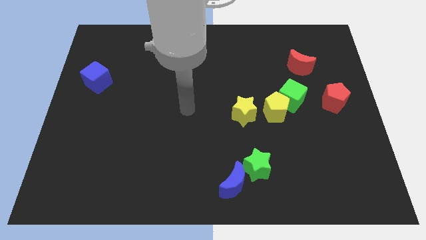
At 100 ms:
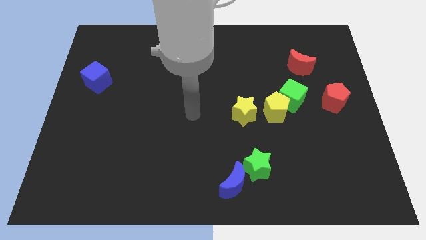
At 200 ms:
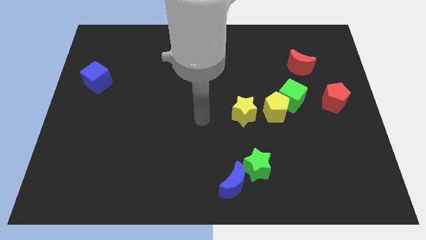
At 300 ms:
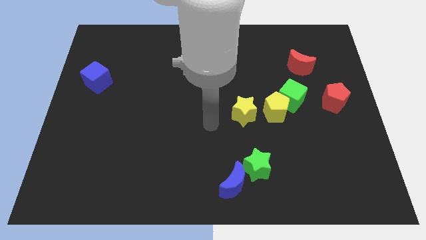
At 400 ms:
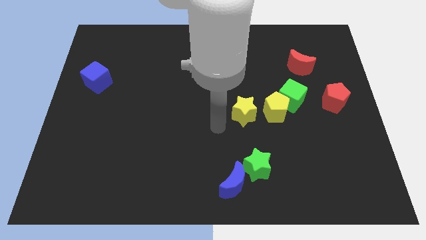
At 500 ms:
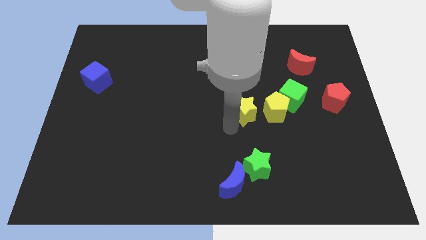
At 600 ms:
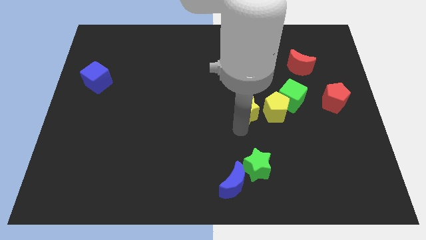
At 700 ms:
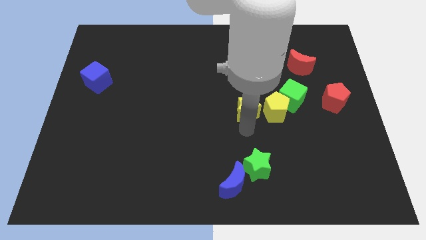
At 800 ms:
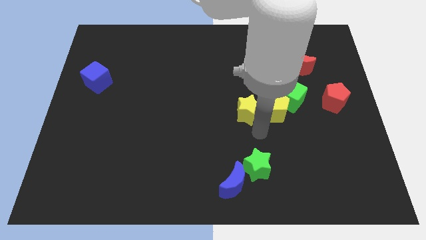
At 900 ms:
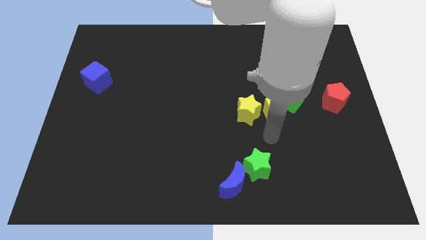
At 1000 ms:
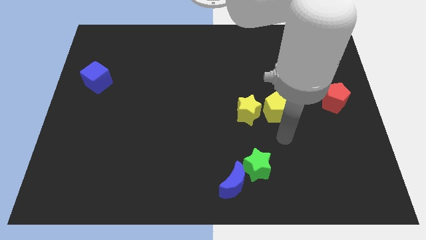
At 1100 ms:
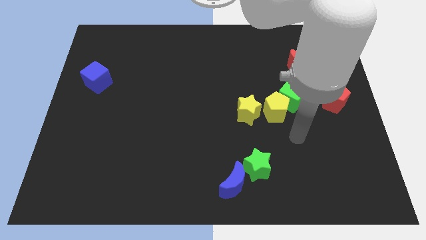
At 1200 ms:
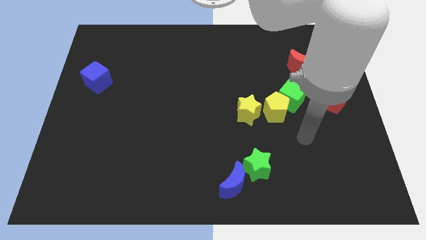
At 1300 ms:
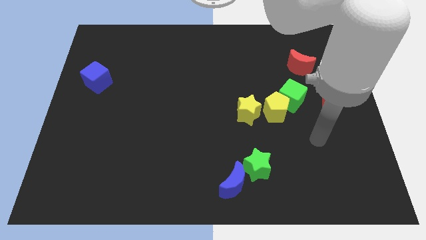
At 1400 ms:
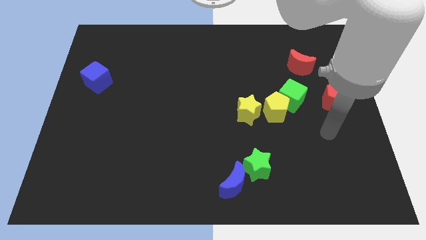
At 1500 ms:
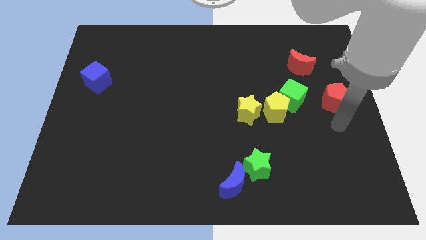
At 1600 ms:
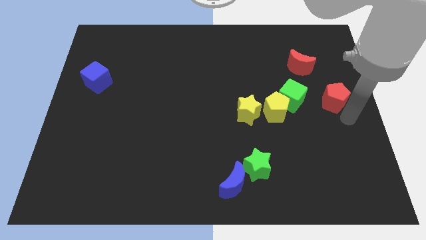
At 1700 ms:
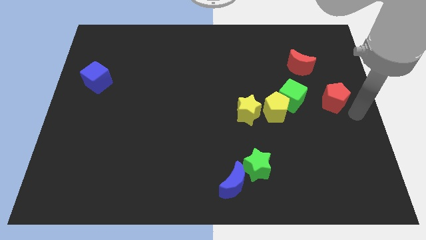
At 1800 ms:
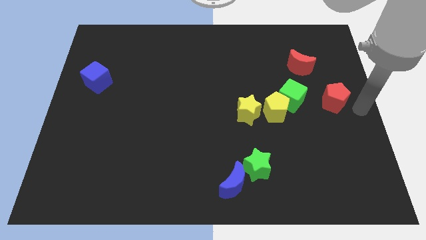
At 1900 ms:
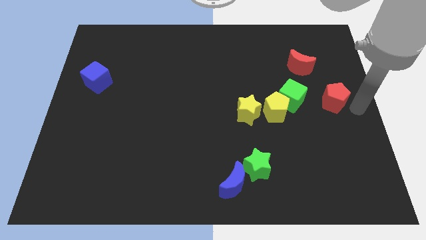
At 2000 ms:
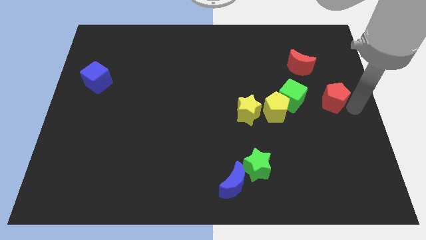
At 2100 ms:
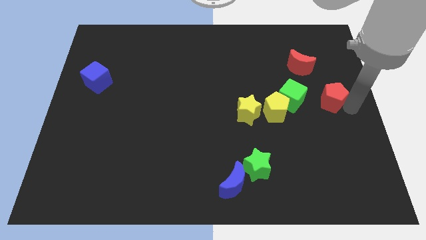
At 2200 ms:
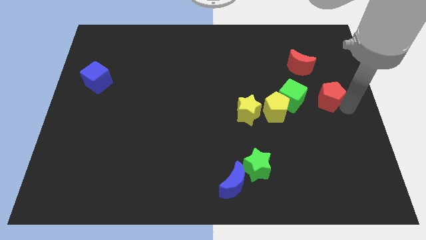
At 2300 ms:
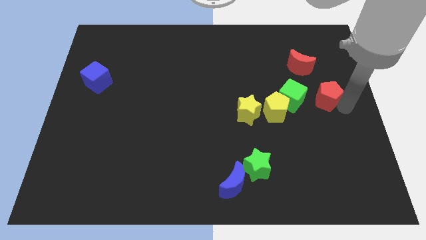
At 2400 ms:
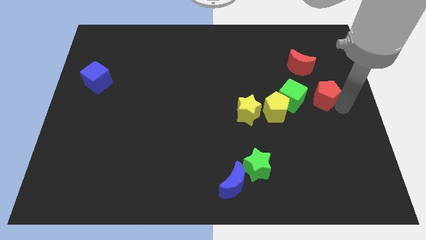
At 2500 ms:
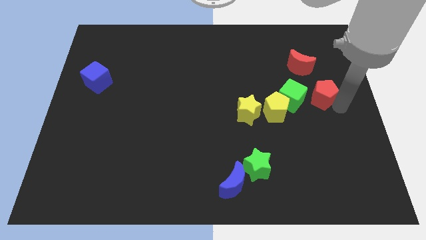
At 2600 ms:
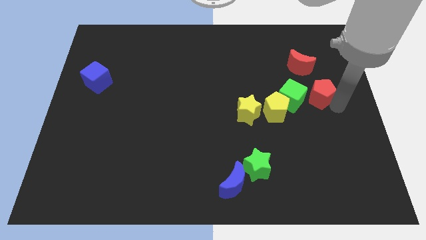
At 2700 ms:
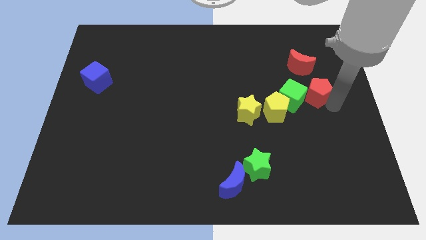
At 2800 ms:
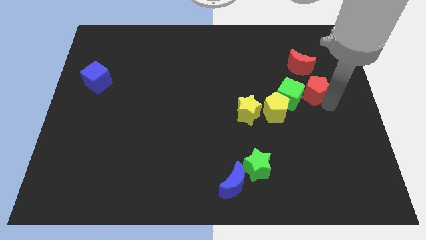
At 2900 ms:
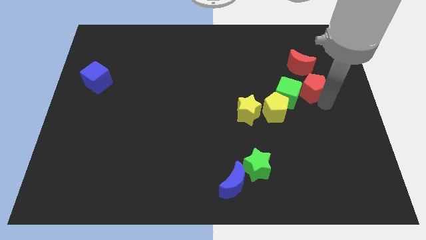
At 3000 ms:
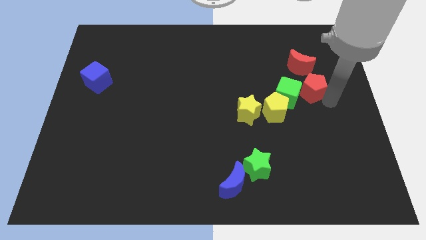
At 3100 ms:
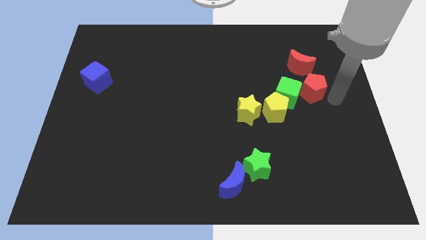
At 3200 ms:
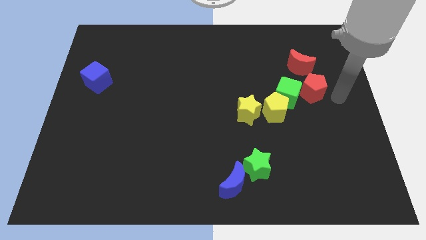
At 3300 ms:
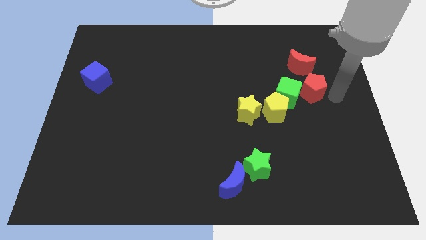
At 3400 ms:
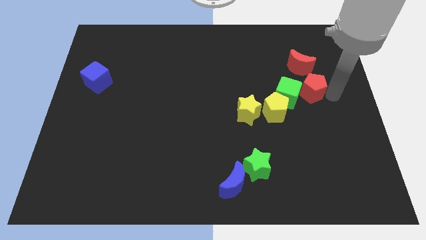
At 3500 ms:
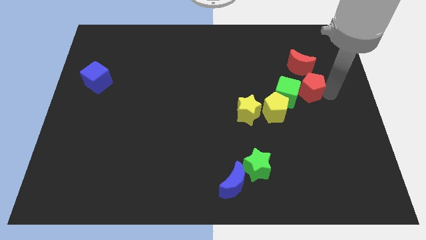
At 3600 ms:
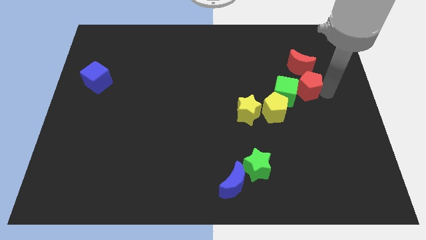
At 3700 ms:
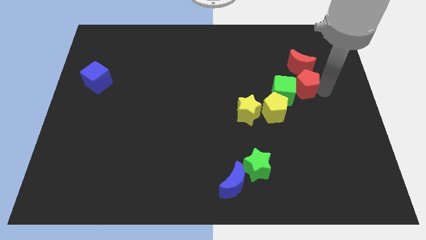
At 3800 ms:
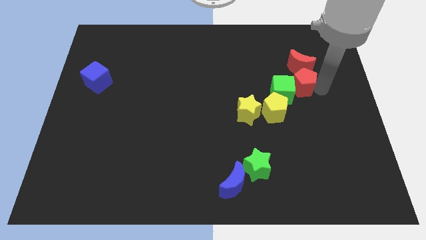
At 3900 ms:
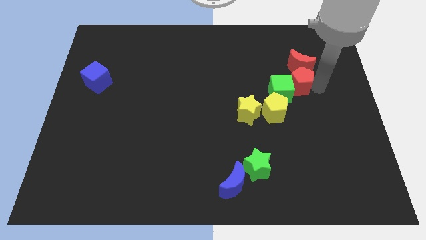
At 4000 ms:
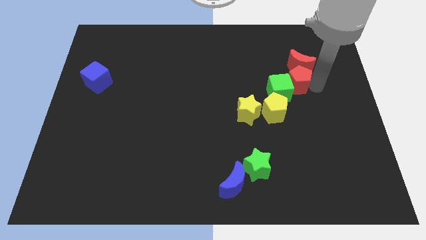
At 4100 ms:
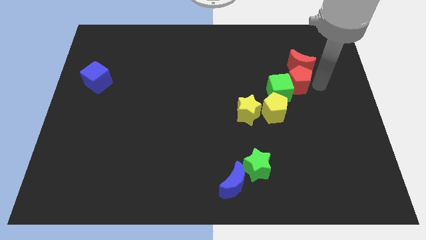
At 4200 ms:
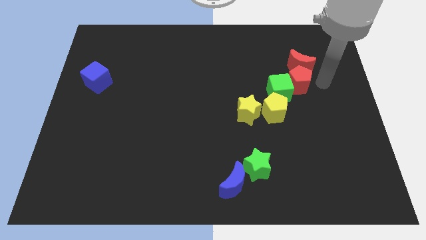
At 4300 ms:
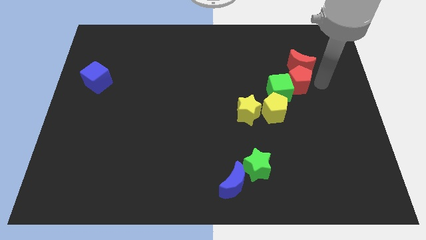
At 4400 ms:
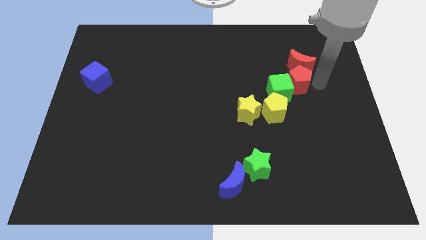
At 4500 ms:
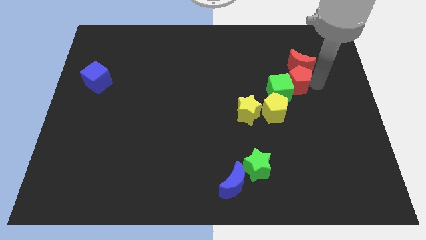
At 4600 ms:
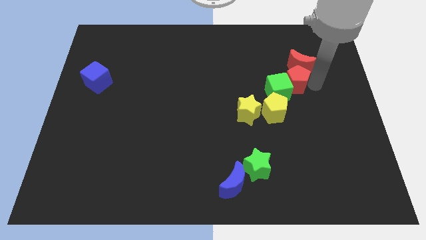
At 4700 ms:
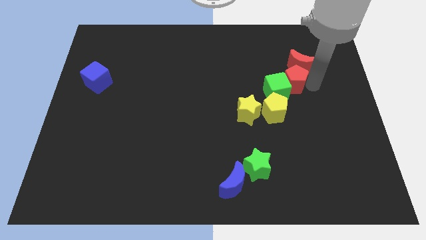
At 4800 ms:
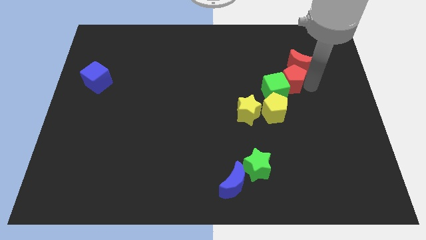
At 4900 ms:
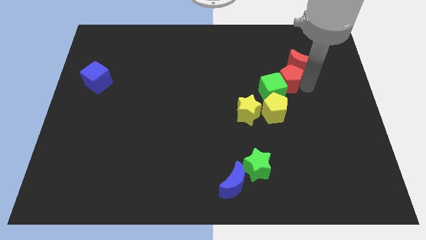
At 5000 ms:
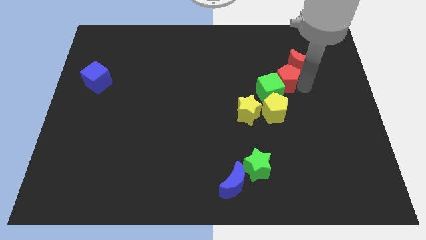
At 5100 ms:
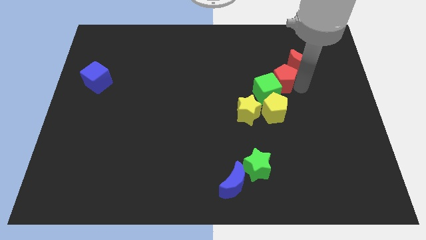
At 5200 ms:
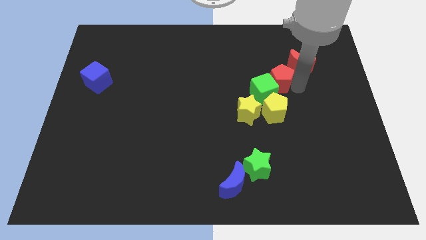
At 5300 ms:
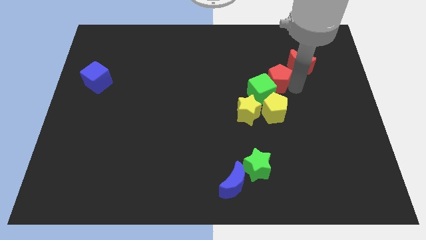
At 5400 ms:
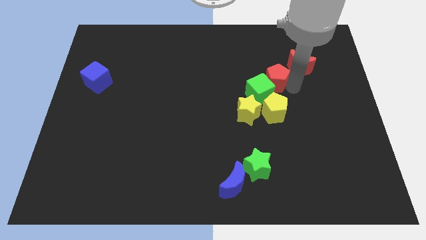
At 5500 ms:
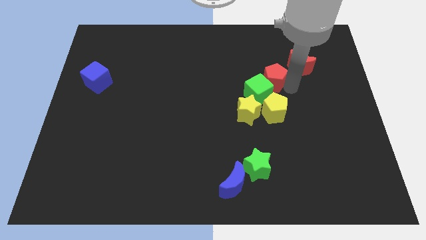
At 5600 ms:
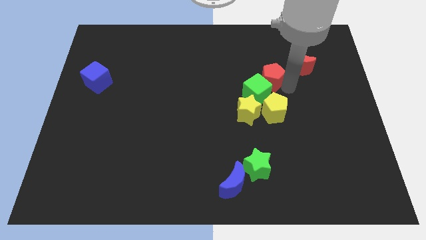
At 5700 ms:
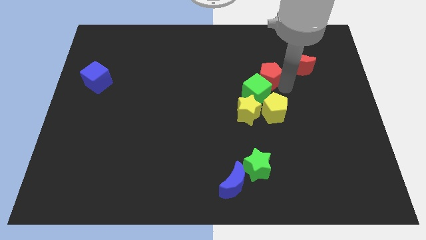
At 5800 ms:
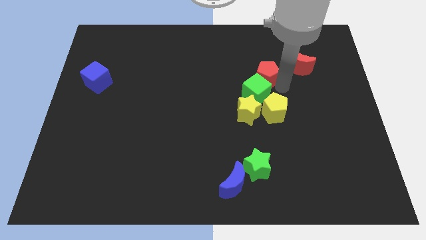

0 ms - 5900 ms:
put the red pentagon to the top side of the yellow star

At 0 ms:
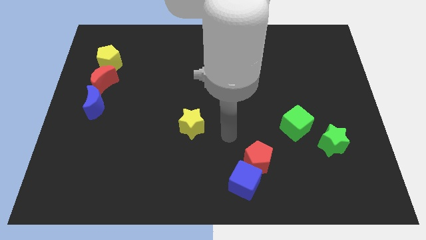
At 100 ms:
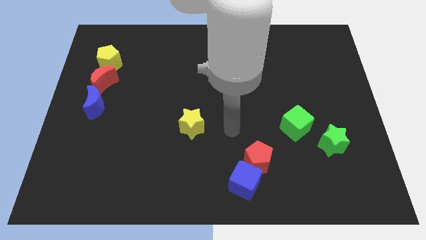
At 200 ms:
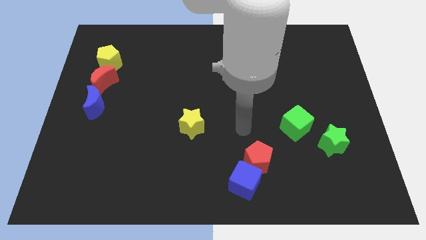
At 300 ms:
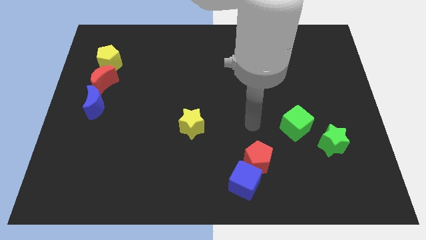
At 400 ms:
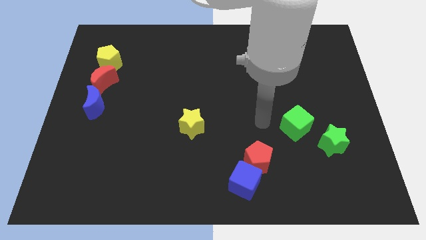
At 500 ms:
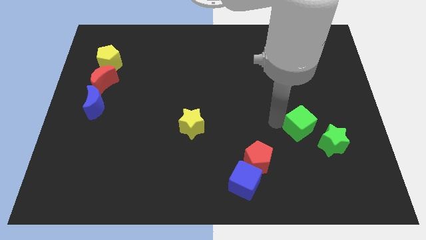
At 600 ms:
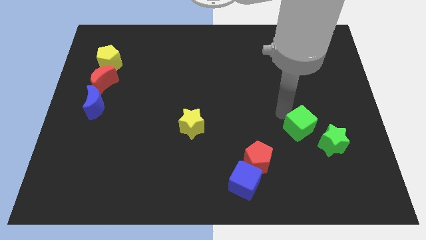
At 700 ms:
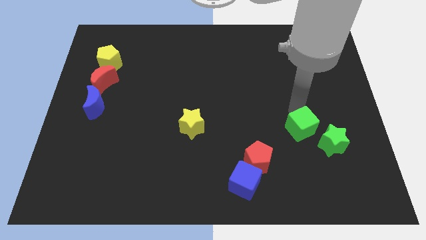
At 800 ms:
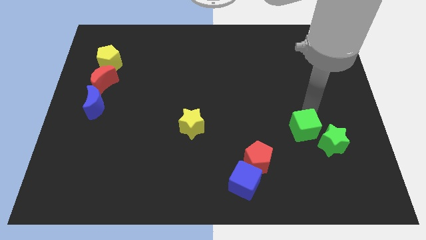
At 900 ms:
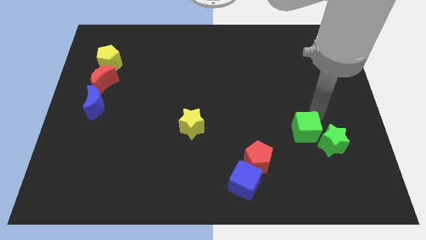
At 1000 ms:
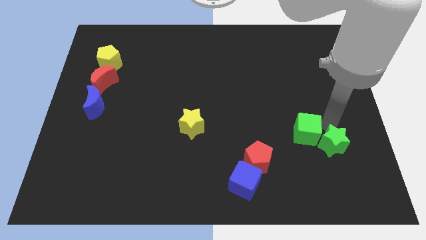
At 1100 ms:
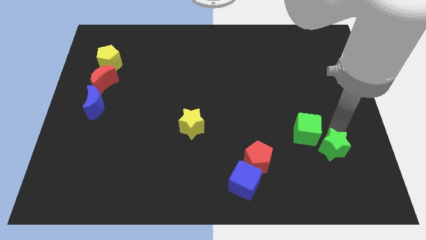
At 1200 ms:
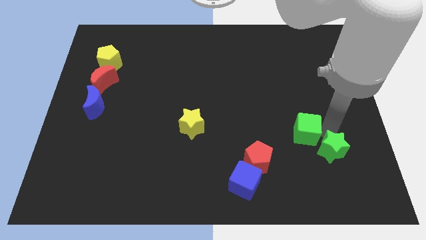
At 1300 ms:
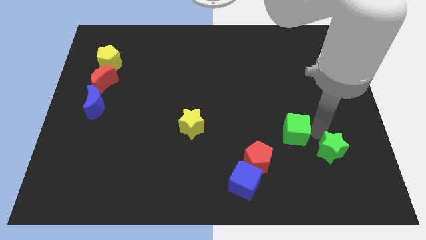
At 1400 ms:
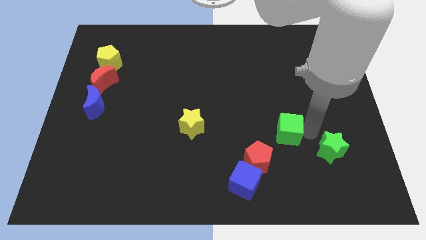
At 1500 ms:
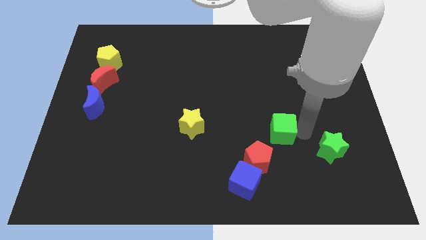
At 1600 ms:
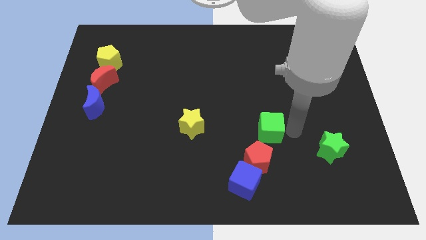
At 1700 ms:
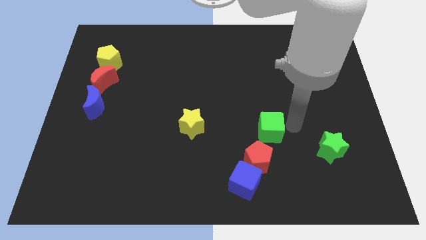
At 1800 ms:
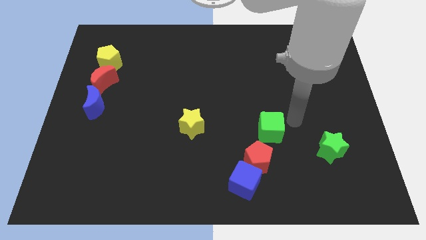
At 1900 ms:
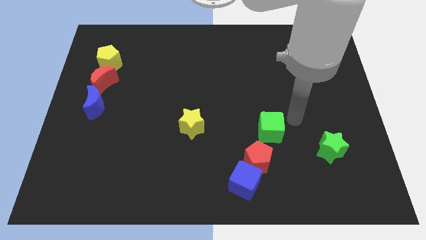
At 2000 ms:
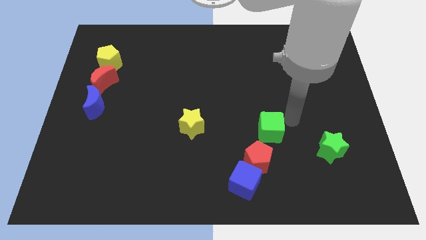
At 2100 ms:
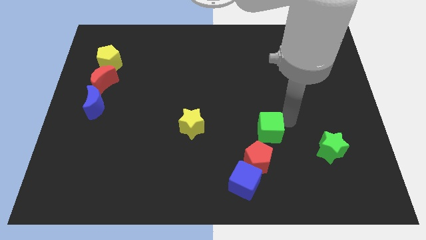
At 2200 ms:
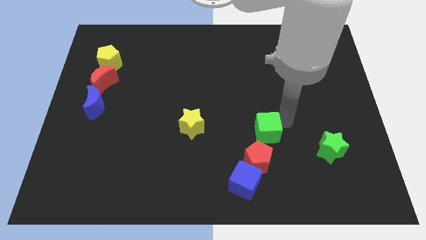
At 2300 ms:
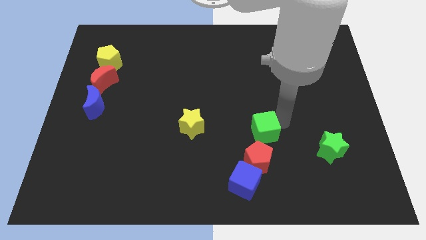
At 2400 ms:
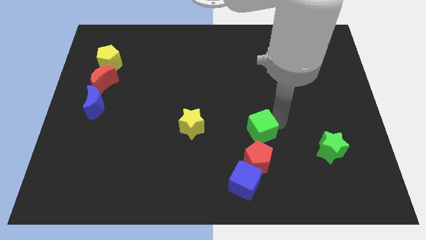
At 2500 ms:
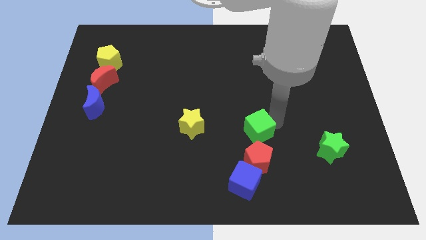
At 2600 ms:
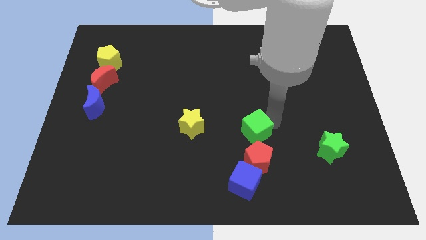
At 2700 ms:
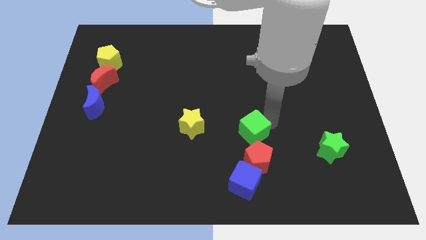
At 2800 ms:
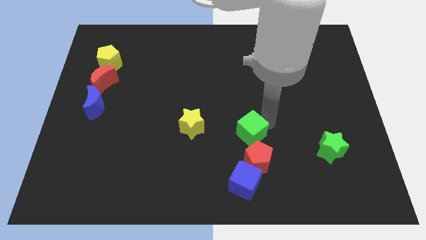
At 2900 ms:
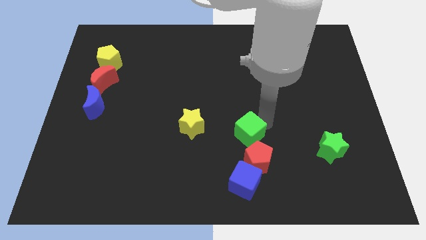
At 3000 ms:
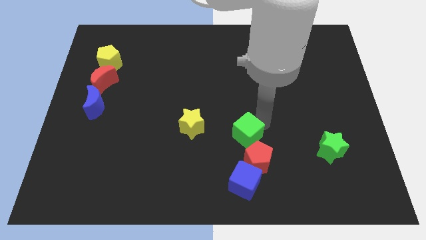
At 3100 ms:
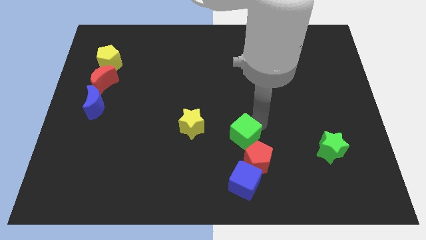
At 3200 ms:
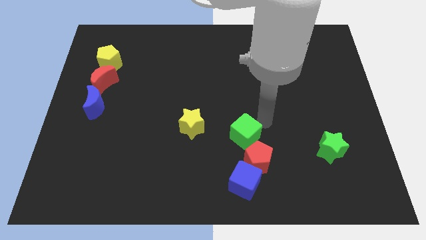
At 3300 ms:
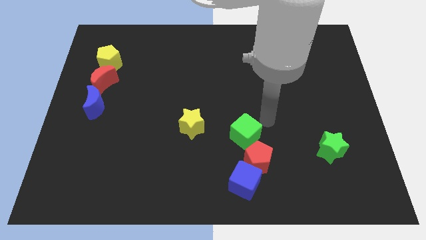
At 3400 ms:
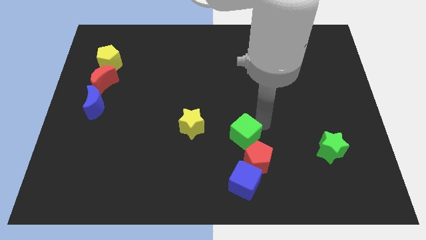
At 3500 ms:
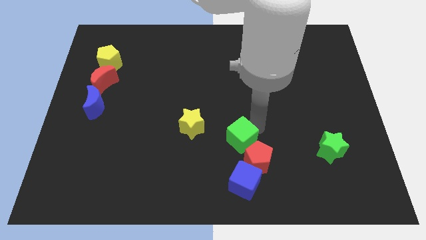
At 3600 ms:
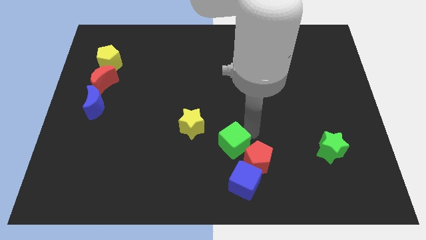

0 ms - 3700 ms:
put the green cube just left of the red pentagon
